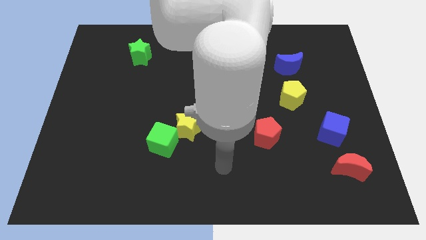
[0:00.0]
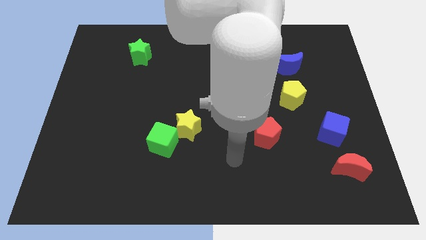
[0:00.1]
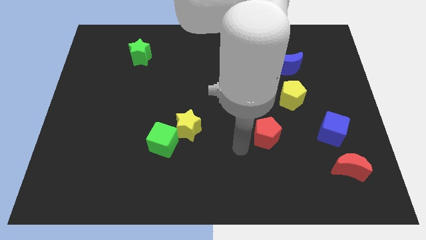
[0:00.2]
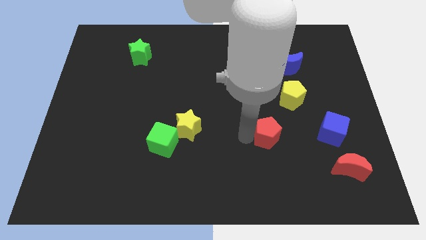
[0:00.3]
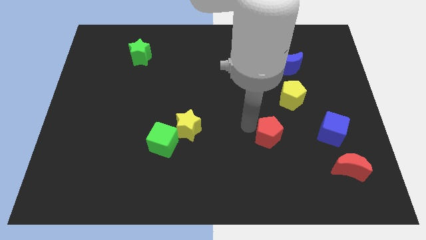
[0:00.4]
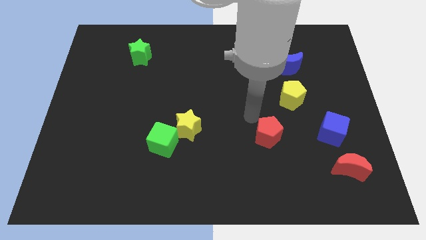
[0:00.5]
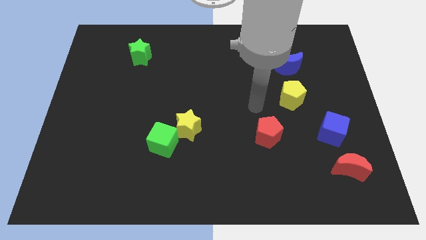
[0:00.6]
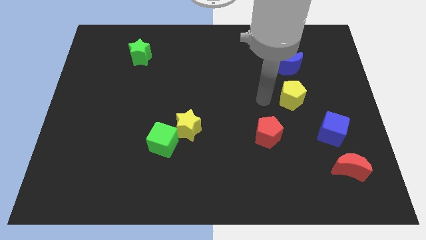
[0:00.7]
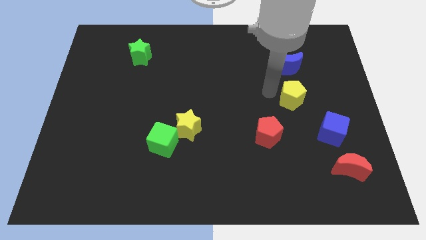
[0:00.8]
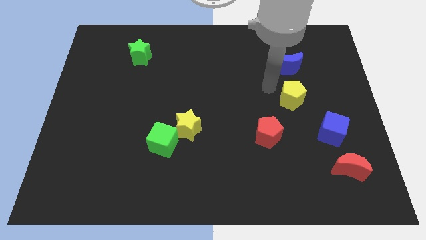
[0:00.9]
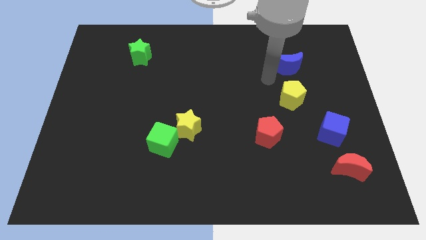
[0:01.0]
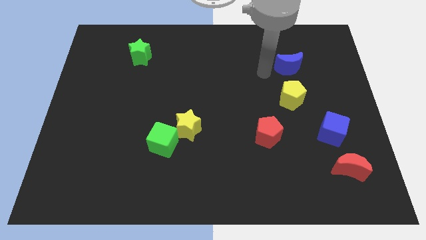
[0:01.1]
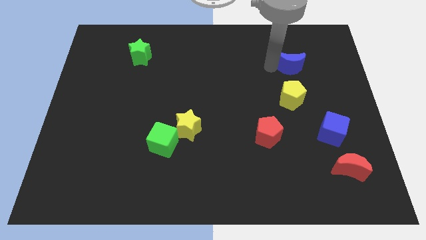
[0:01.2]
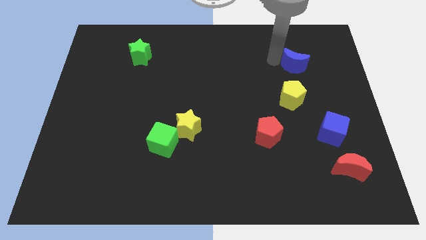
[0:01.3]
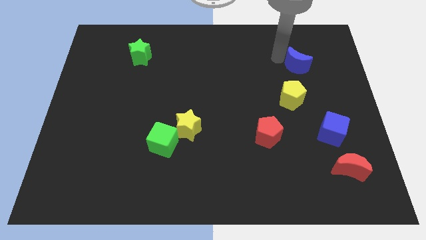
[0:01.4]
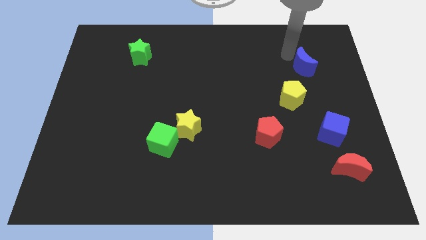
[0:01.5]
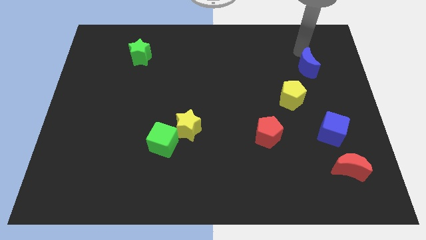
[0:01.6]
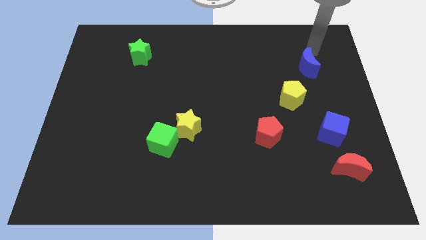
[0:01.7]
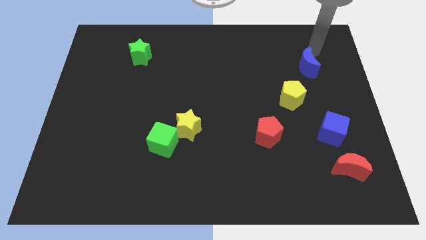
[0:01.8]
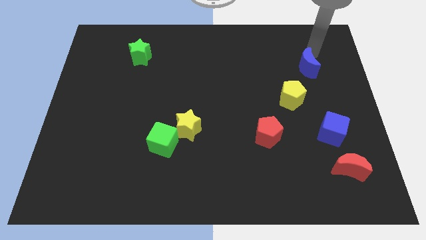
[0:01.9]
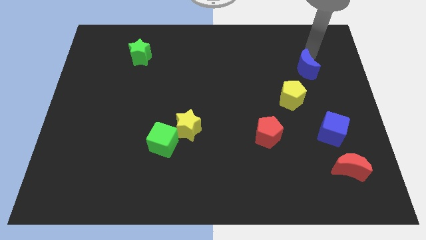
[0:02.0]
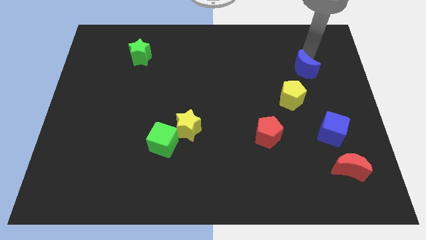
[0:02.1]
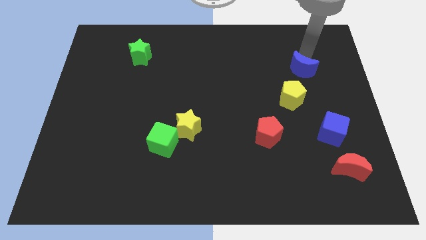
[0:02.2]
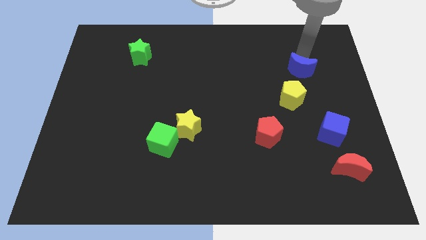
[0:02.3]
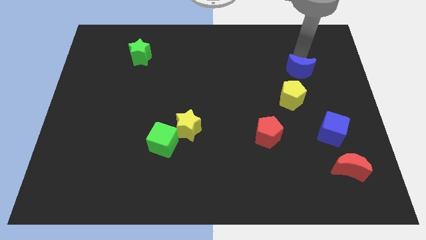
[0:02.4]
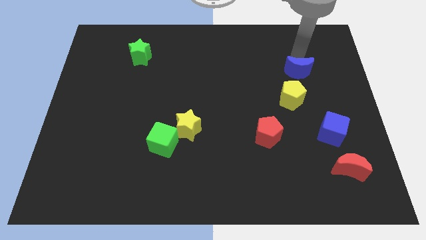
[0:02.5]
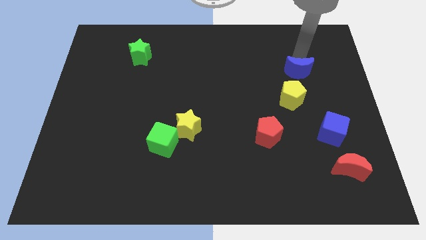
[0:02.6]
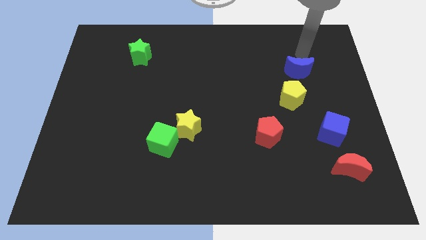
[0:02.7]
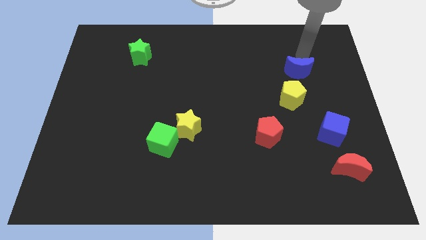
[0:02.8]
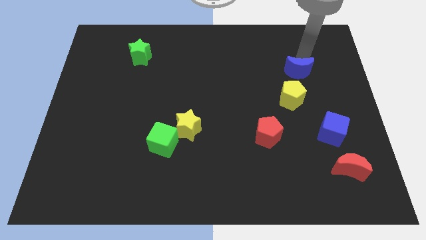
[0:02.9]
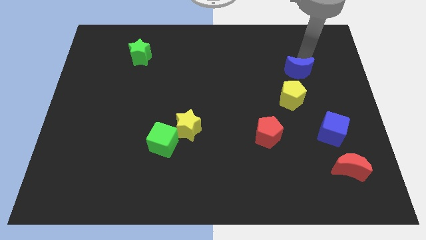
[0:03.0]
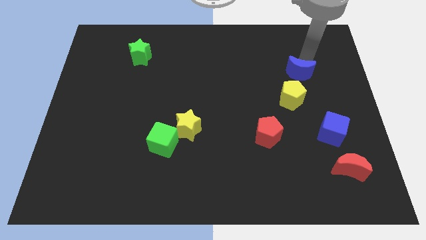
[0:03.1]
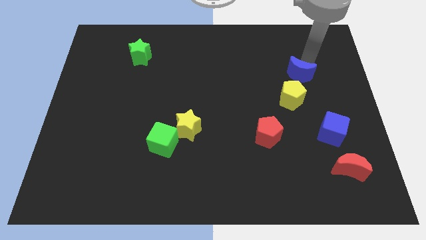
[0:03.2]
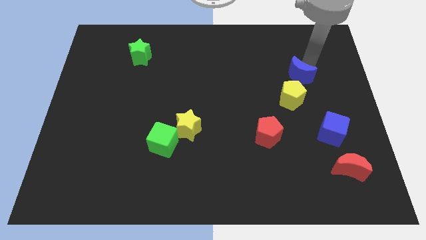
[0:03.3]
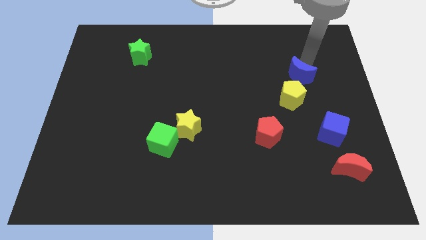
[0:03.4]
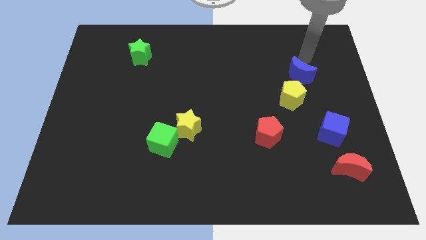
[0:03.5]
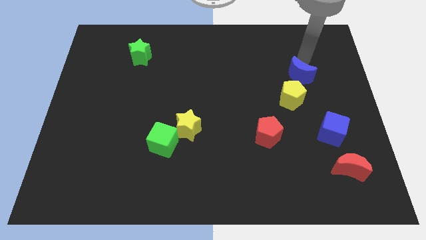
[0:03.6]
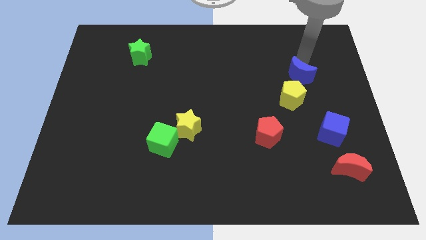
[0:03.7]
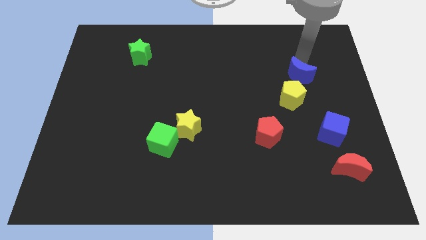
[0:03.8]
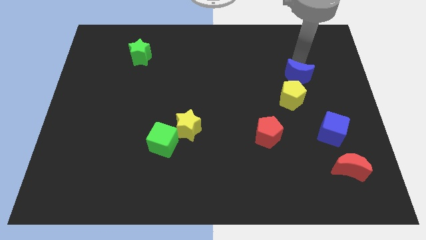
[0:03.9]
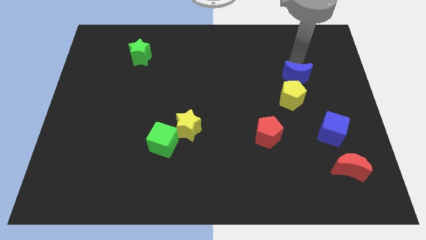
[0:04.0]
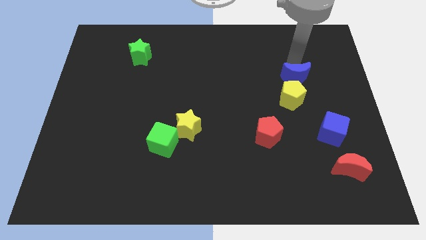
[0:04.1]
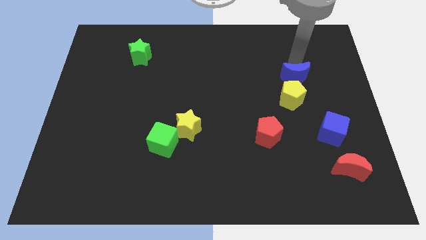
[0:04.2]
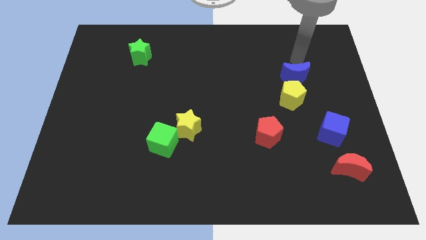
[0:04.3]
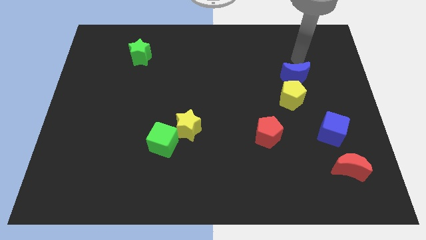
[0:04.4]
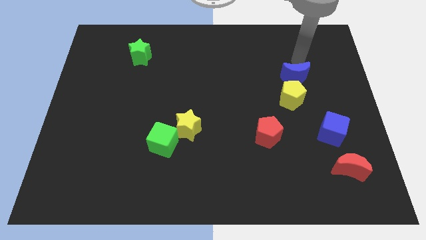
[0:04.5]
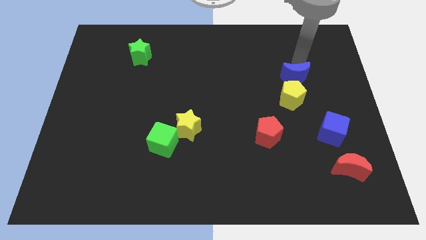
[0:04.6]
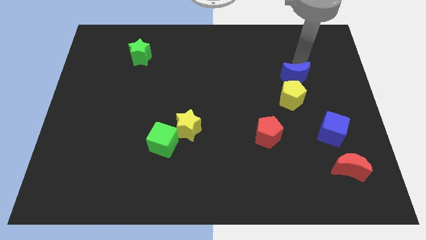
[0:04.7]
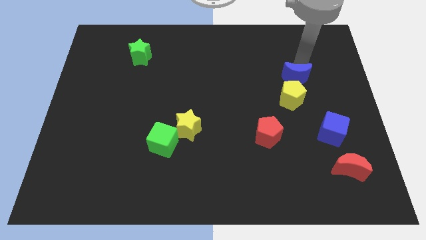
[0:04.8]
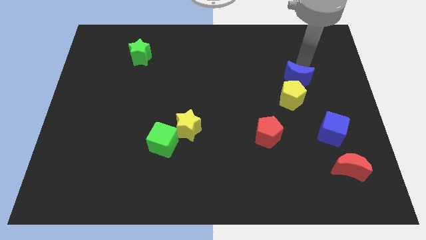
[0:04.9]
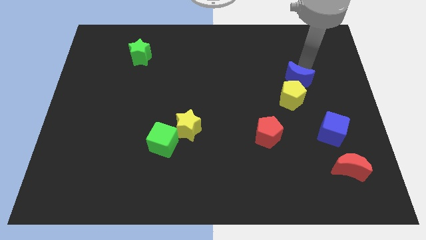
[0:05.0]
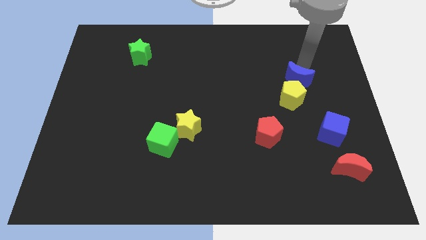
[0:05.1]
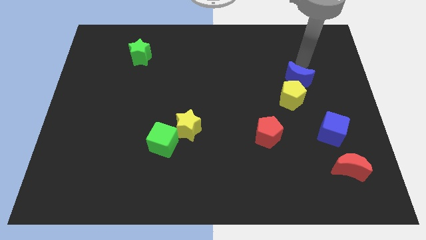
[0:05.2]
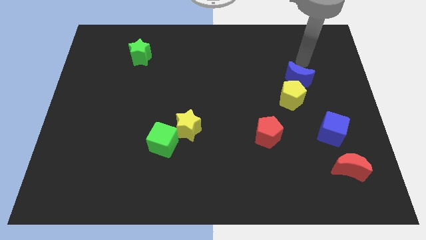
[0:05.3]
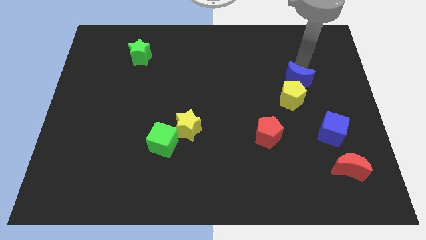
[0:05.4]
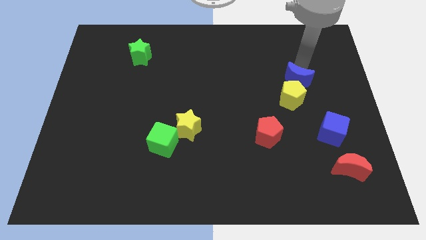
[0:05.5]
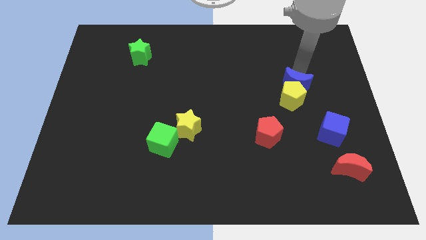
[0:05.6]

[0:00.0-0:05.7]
push the blue moon towards the yellow pentagon

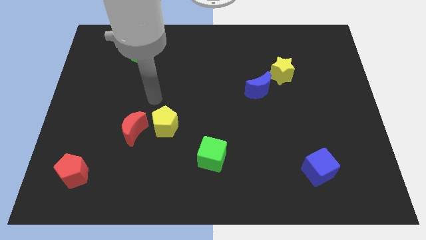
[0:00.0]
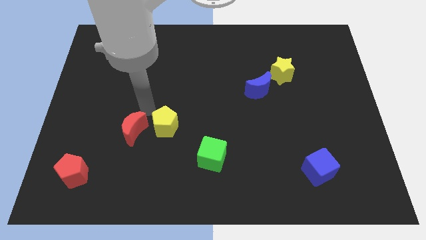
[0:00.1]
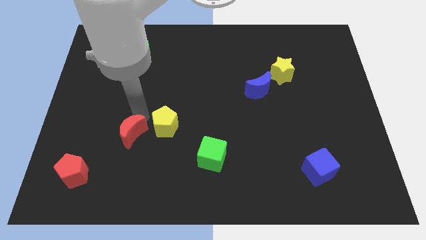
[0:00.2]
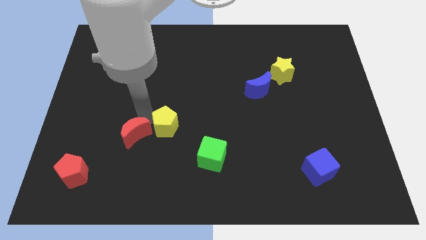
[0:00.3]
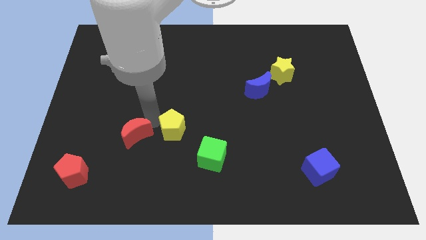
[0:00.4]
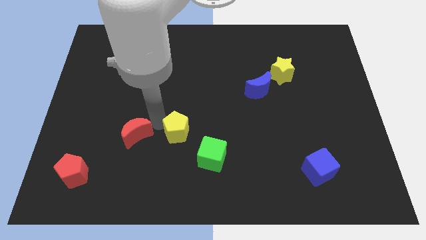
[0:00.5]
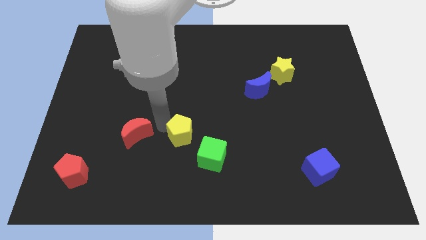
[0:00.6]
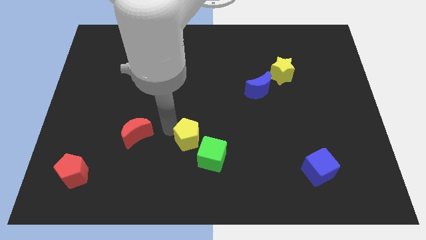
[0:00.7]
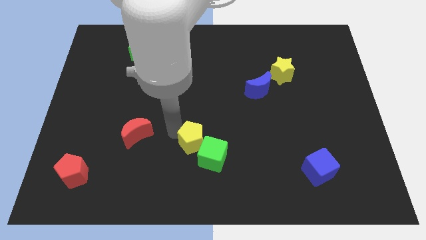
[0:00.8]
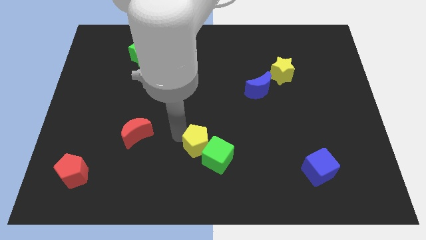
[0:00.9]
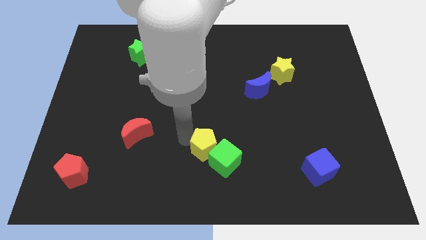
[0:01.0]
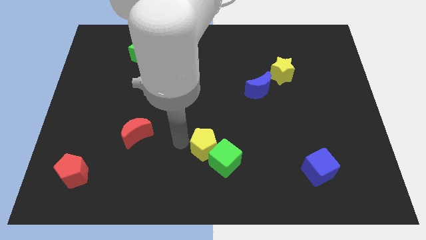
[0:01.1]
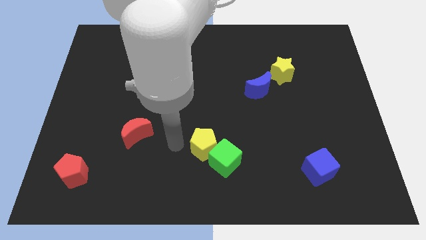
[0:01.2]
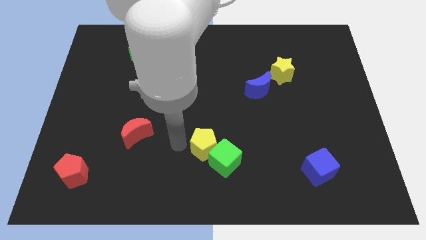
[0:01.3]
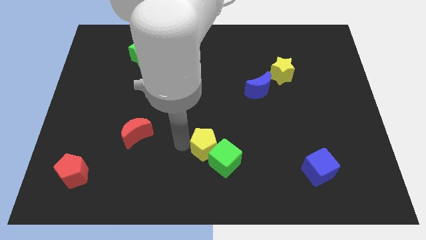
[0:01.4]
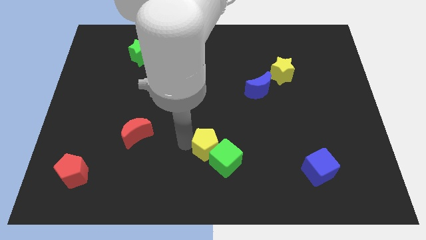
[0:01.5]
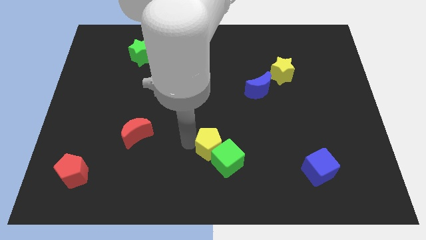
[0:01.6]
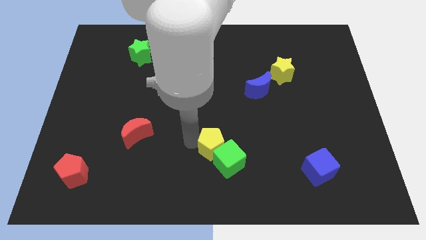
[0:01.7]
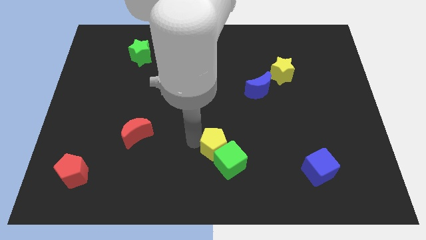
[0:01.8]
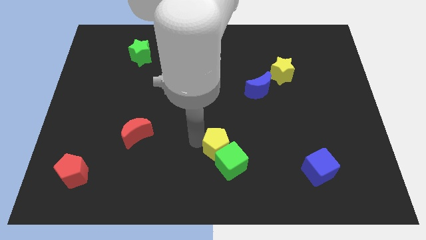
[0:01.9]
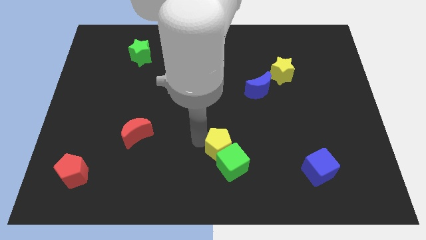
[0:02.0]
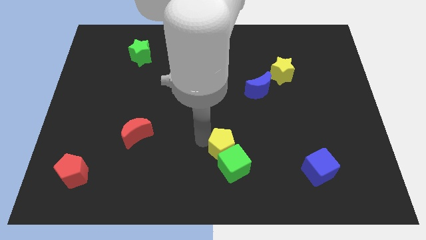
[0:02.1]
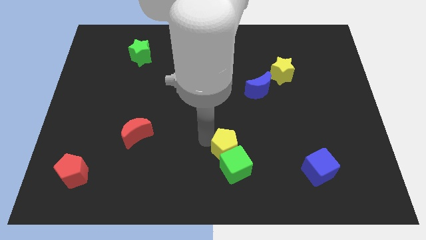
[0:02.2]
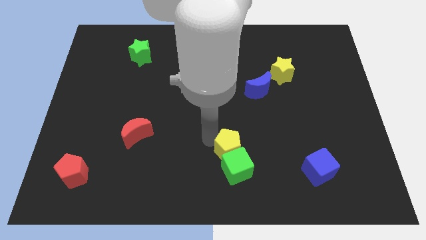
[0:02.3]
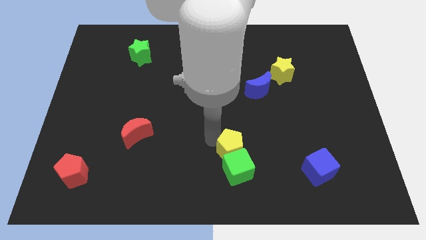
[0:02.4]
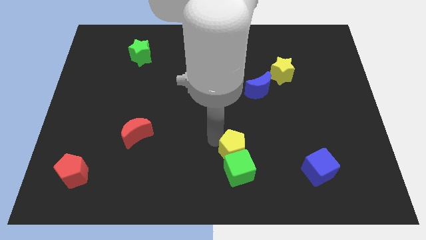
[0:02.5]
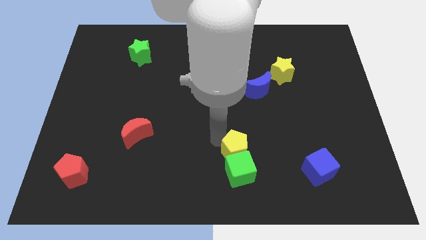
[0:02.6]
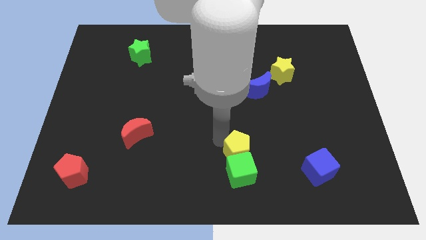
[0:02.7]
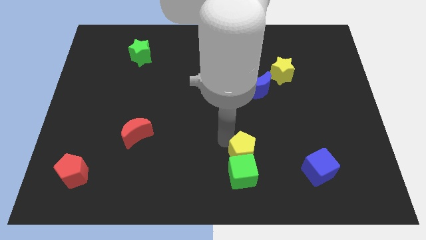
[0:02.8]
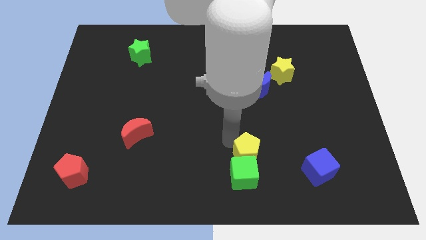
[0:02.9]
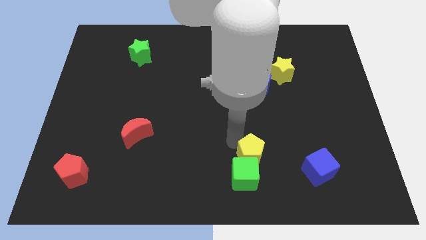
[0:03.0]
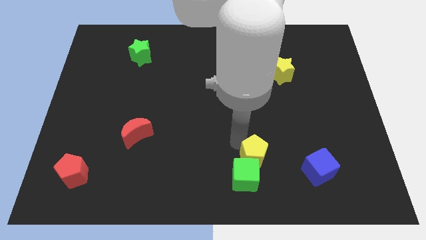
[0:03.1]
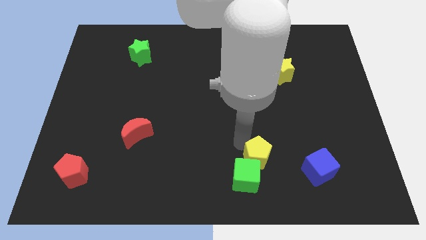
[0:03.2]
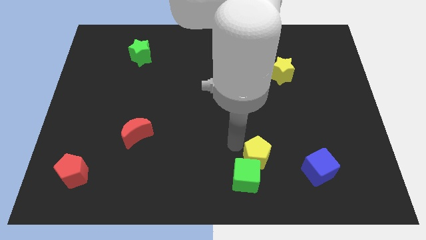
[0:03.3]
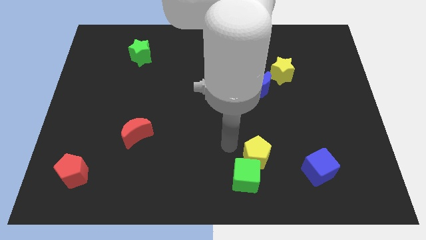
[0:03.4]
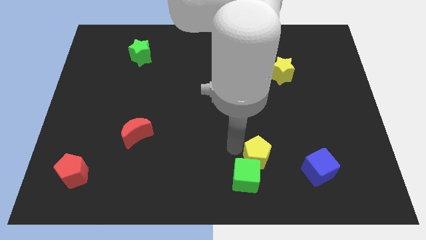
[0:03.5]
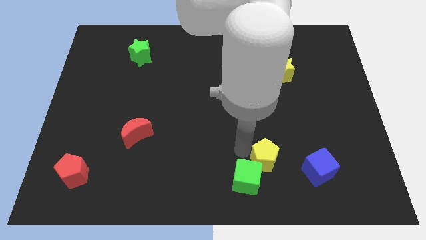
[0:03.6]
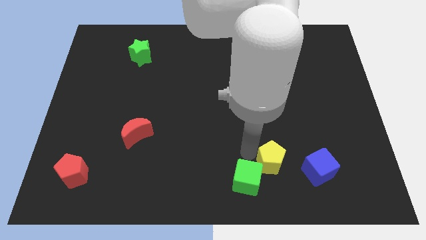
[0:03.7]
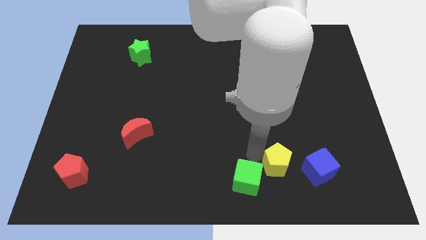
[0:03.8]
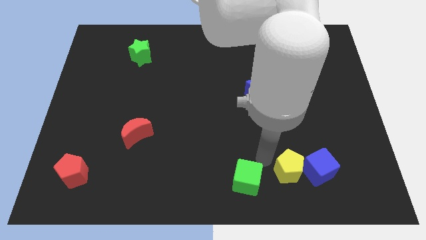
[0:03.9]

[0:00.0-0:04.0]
move the yellow pentagon next to the blue cube
